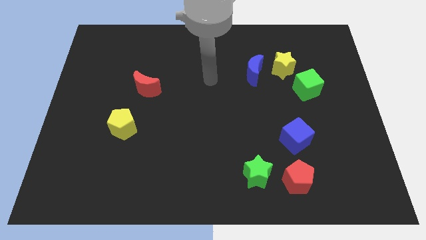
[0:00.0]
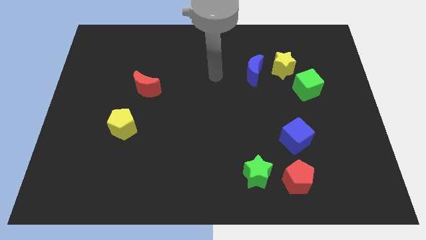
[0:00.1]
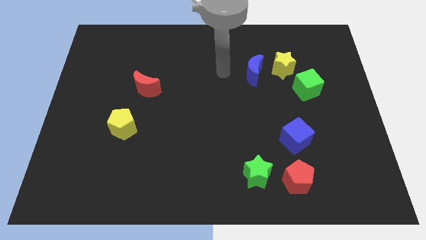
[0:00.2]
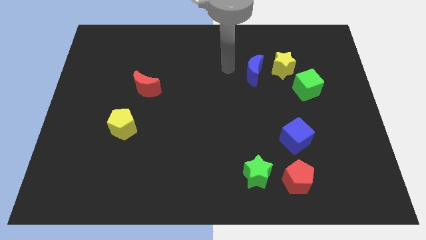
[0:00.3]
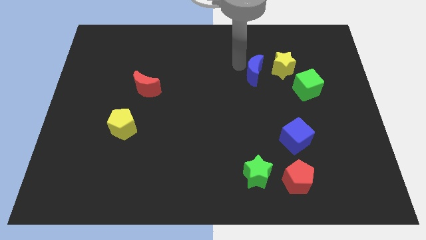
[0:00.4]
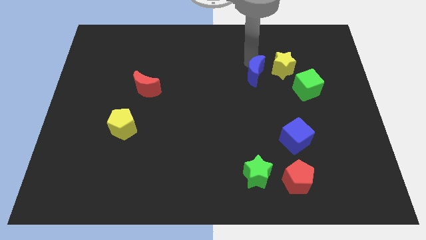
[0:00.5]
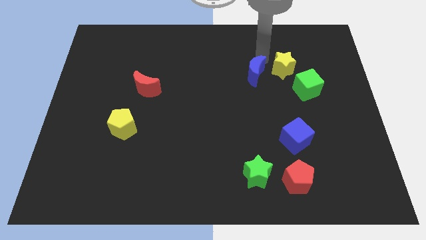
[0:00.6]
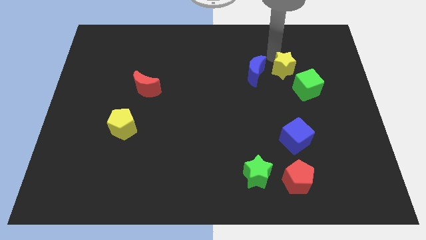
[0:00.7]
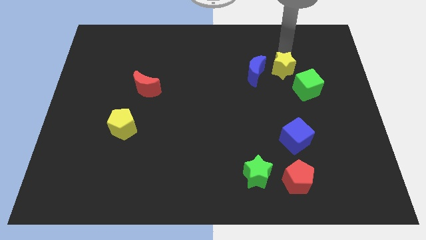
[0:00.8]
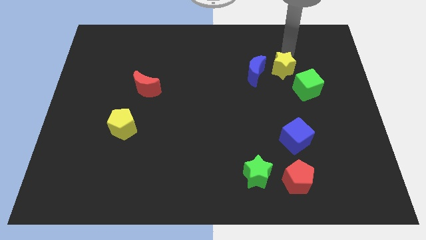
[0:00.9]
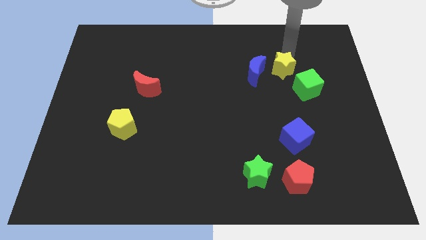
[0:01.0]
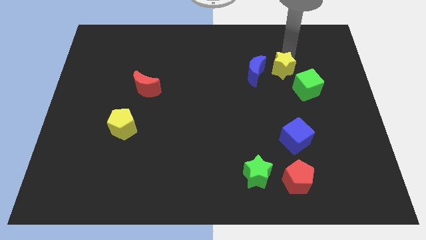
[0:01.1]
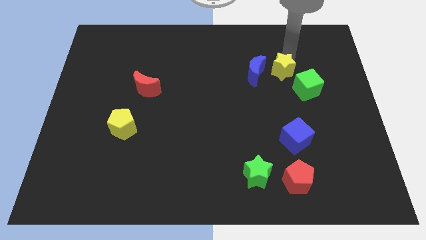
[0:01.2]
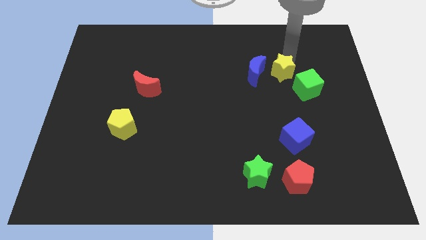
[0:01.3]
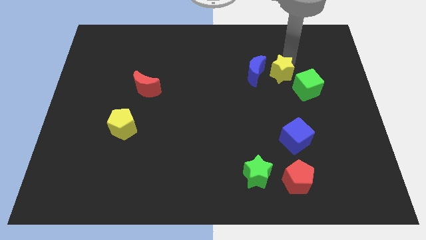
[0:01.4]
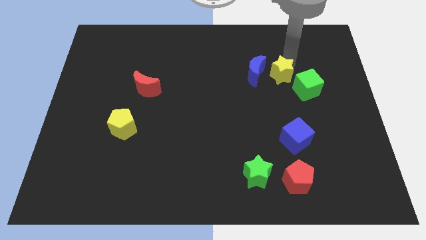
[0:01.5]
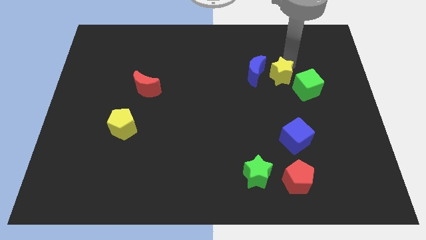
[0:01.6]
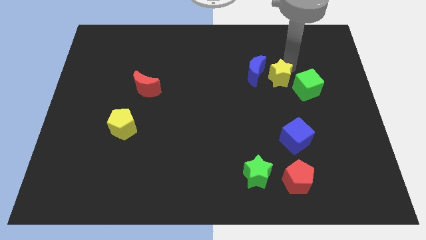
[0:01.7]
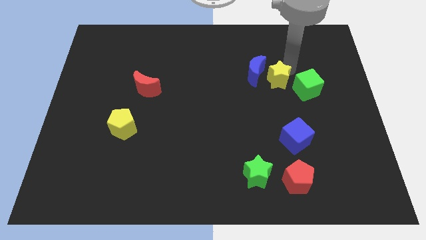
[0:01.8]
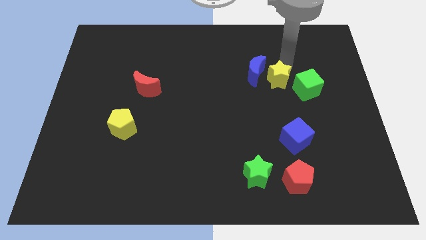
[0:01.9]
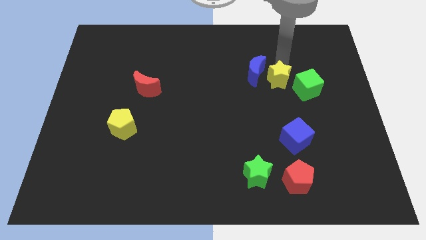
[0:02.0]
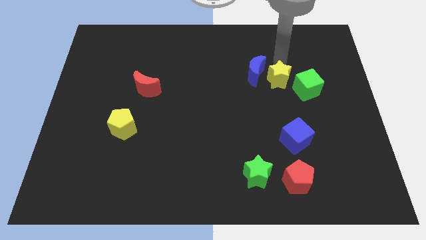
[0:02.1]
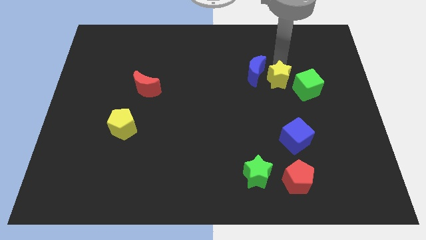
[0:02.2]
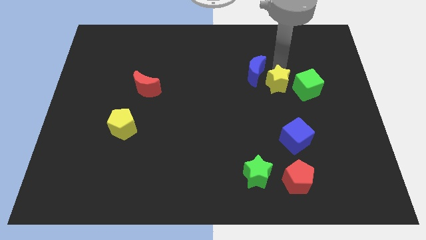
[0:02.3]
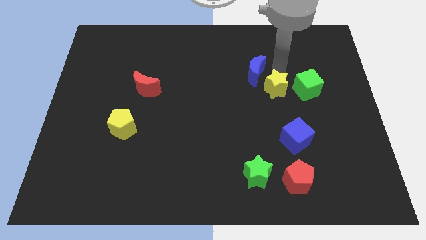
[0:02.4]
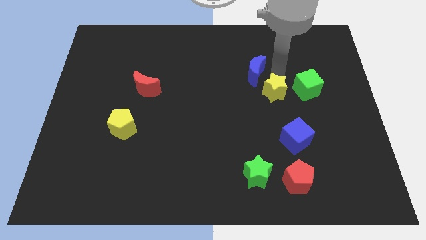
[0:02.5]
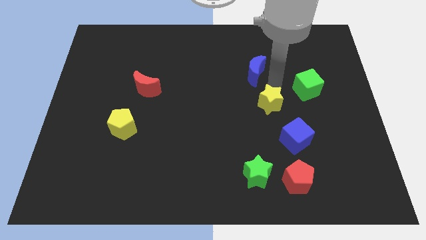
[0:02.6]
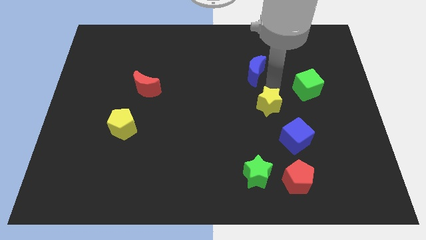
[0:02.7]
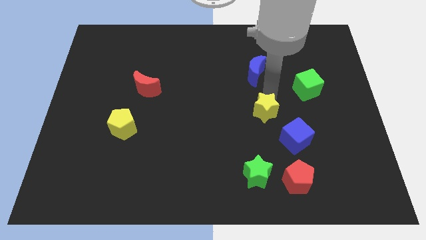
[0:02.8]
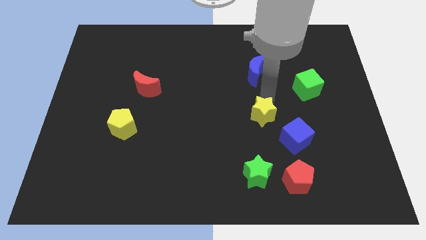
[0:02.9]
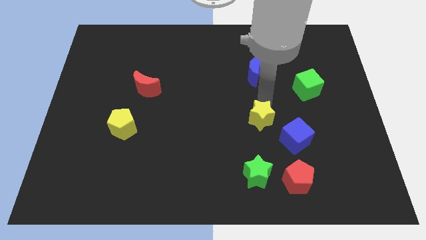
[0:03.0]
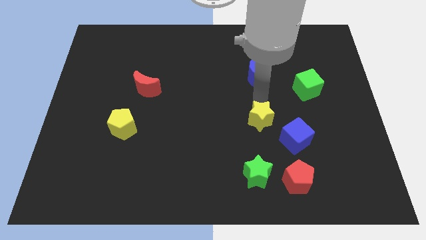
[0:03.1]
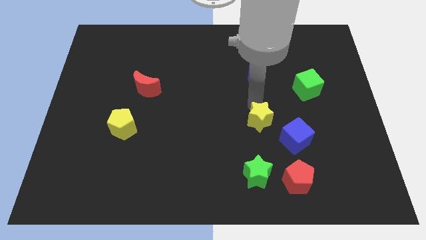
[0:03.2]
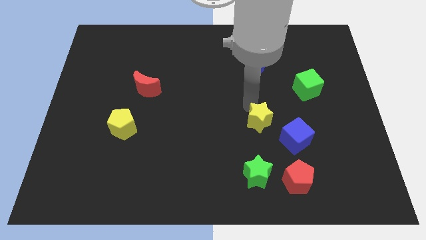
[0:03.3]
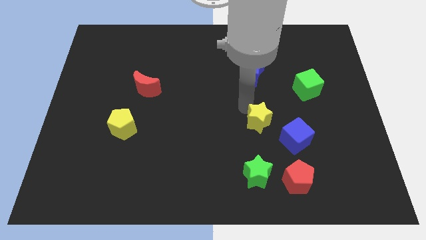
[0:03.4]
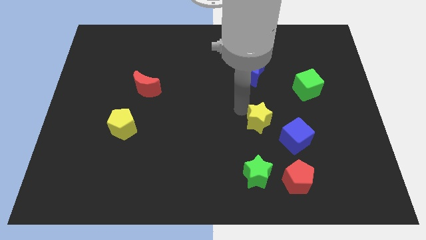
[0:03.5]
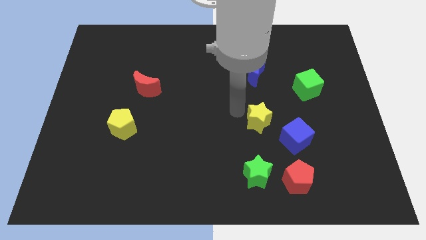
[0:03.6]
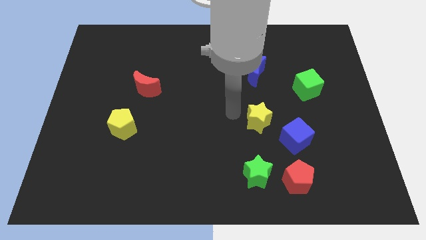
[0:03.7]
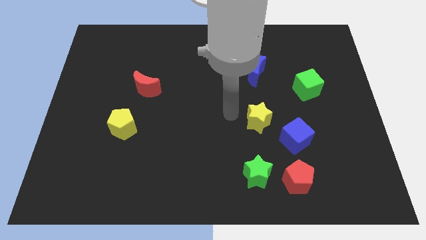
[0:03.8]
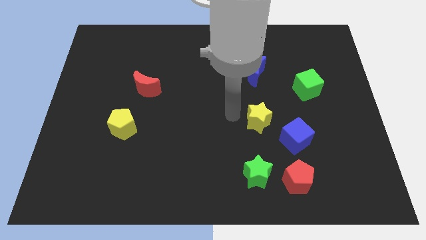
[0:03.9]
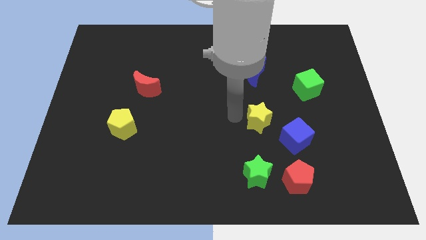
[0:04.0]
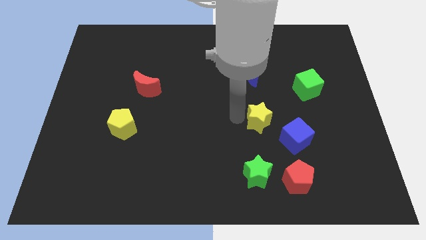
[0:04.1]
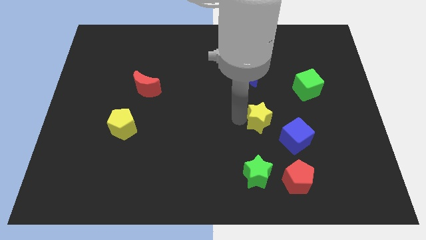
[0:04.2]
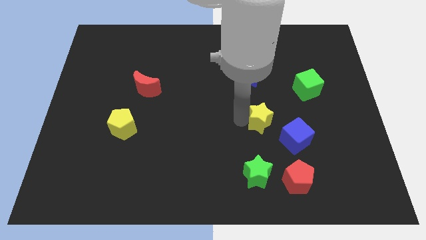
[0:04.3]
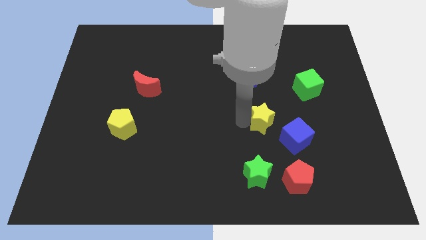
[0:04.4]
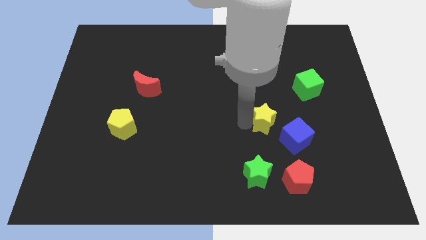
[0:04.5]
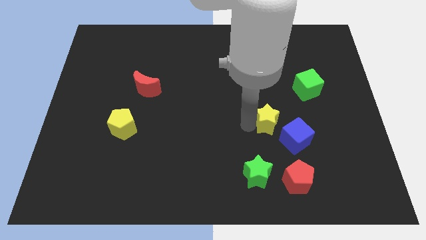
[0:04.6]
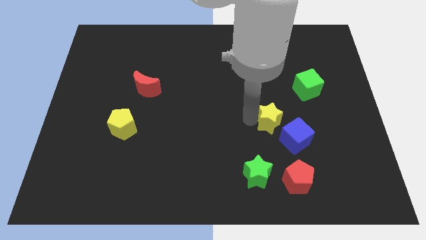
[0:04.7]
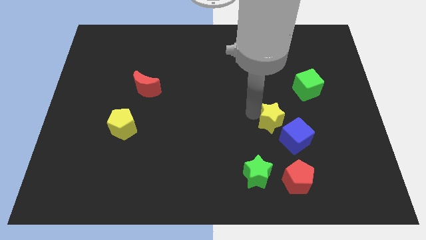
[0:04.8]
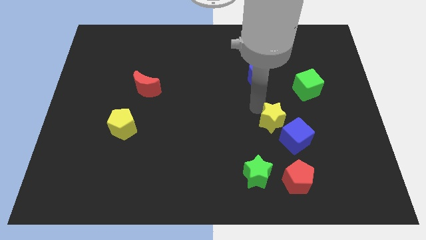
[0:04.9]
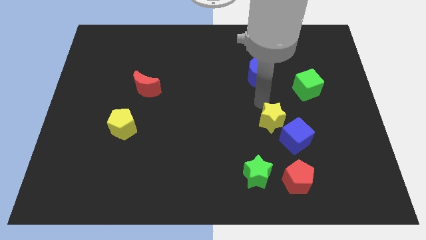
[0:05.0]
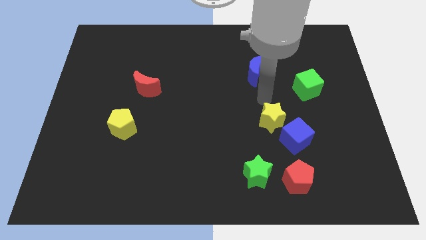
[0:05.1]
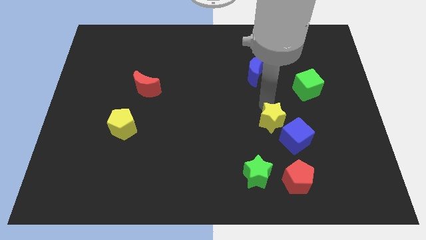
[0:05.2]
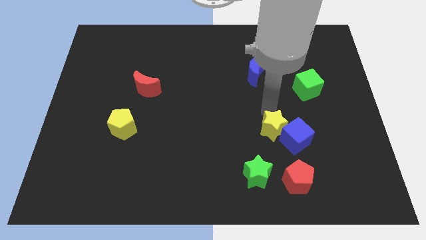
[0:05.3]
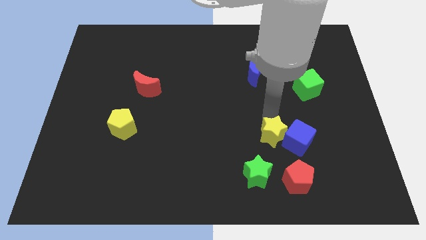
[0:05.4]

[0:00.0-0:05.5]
slide the yellow star diagonally up and to the right of the green star

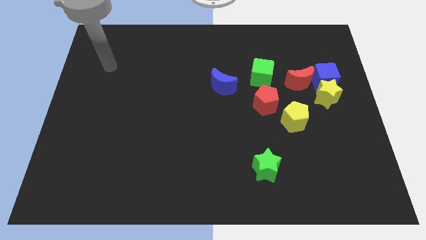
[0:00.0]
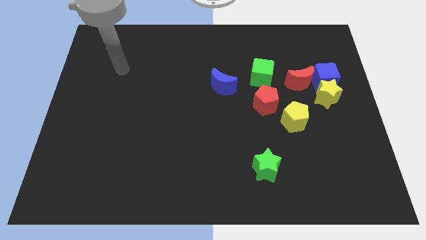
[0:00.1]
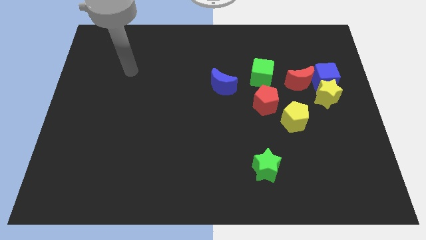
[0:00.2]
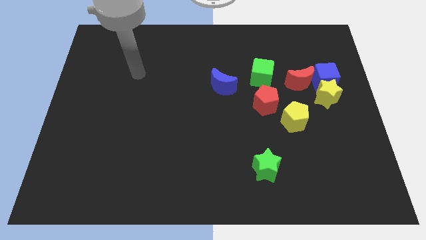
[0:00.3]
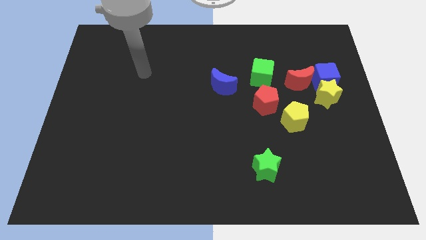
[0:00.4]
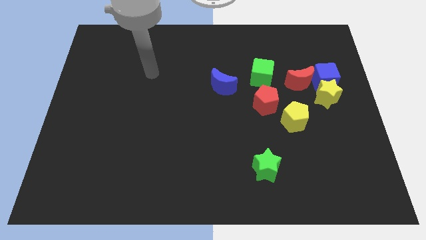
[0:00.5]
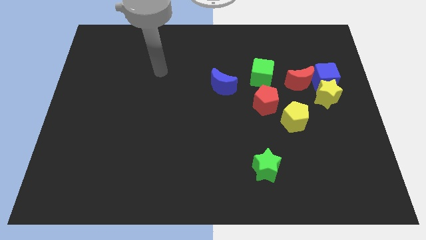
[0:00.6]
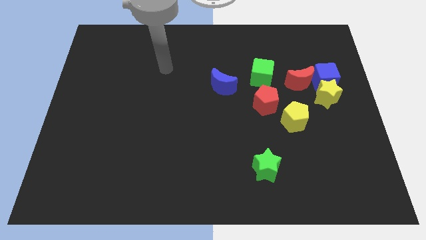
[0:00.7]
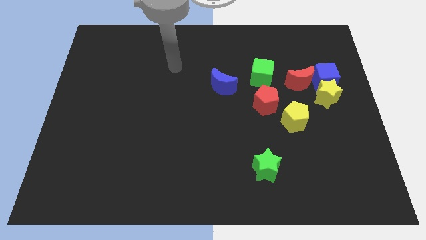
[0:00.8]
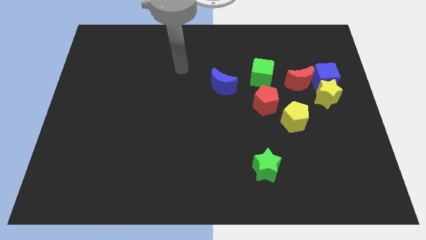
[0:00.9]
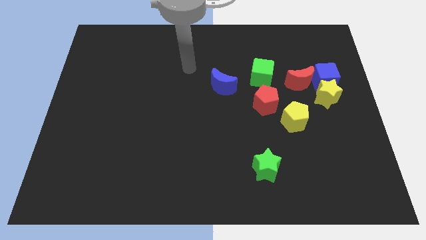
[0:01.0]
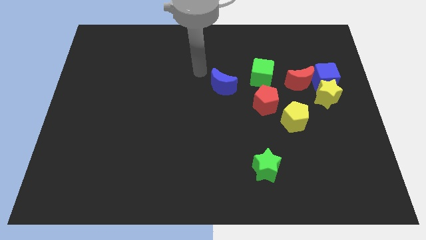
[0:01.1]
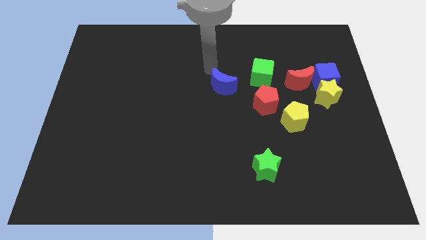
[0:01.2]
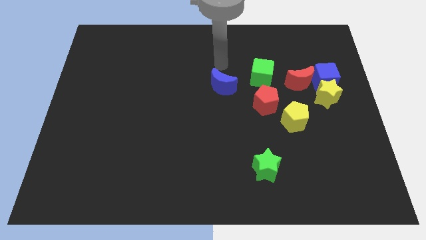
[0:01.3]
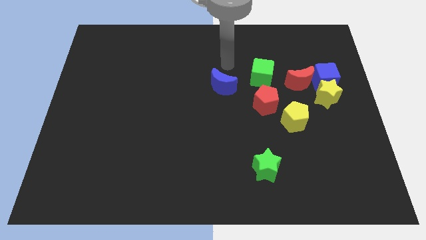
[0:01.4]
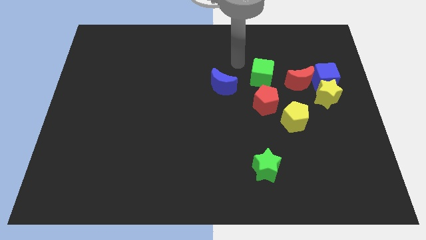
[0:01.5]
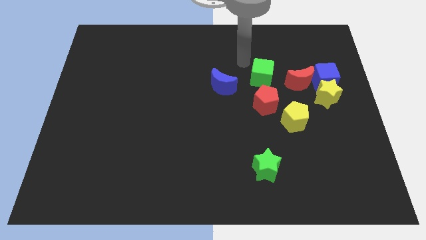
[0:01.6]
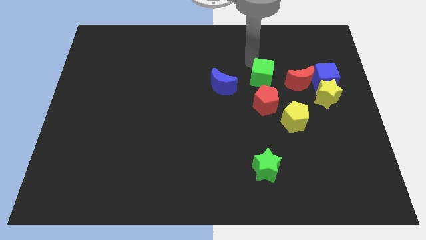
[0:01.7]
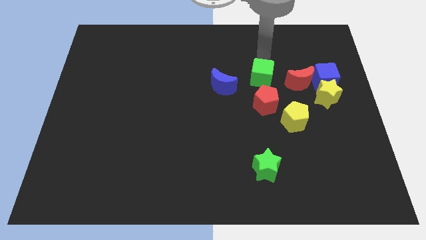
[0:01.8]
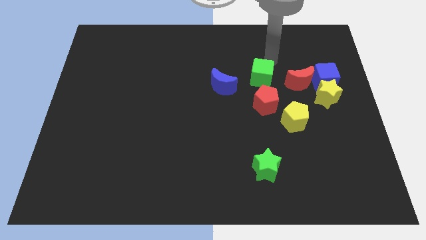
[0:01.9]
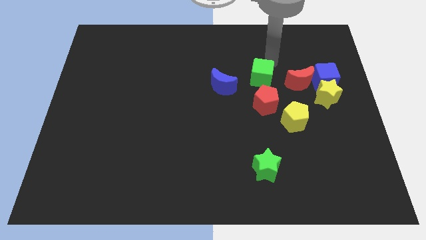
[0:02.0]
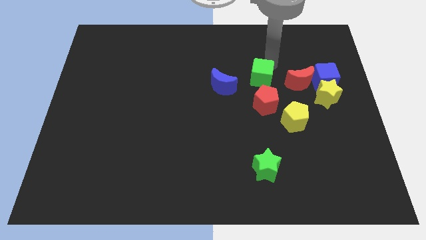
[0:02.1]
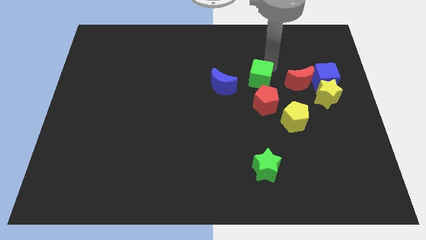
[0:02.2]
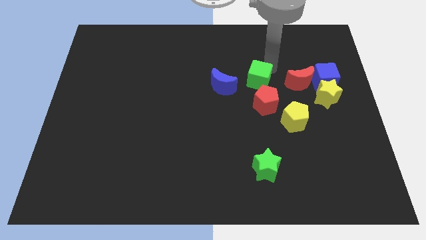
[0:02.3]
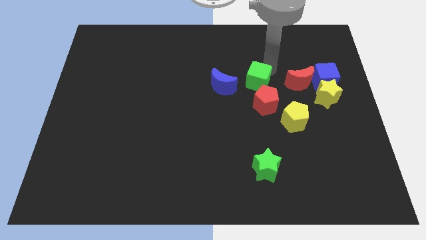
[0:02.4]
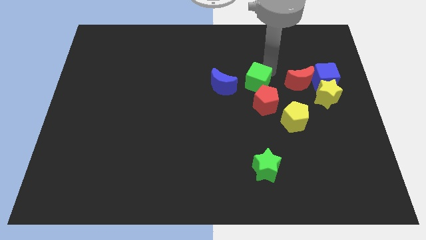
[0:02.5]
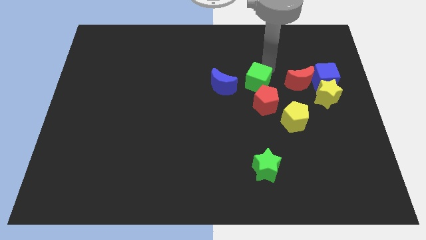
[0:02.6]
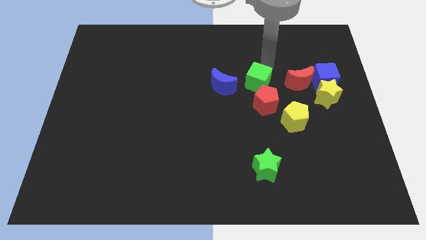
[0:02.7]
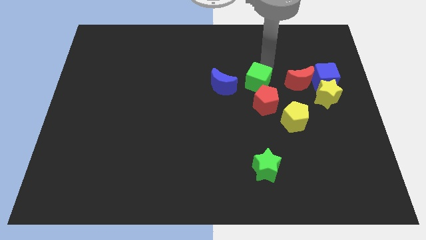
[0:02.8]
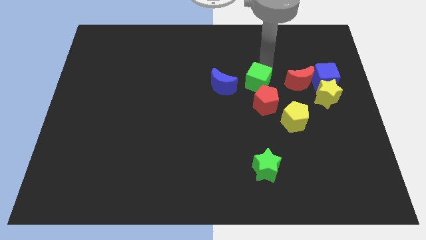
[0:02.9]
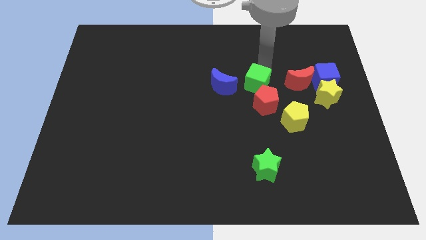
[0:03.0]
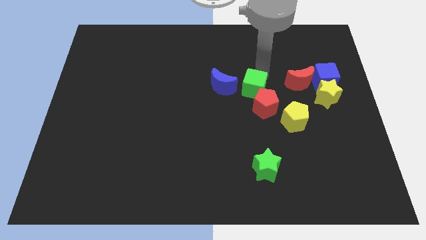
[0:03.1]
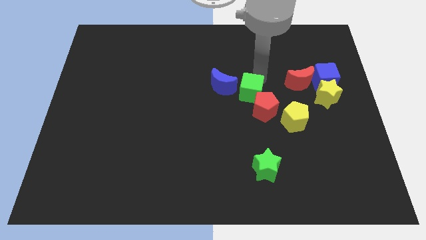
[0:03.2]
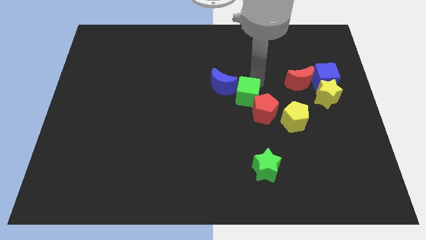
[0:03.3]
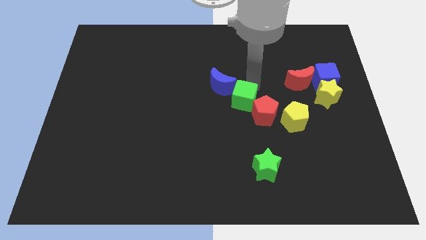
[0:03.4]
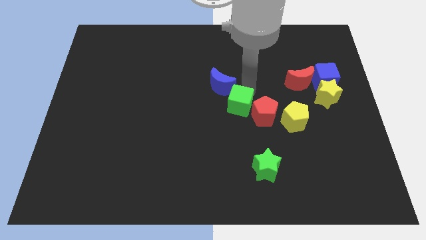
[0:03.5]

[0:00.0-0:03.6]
push the green cube just left of the yellow pentagon
